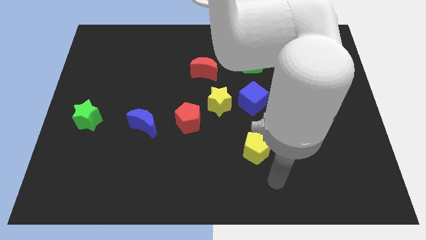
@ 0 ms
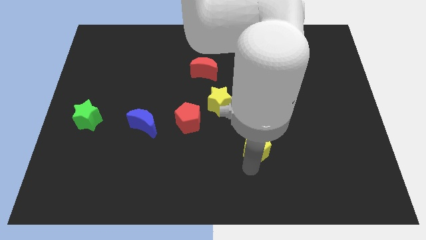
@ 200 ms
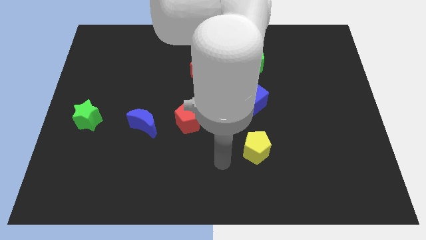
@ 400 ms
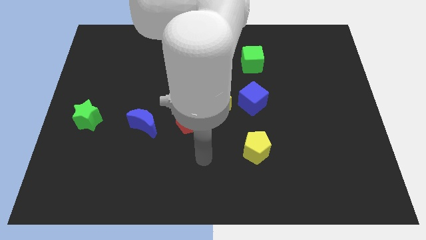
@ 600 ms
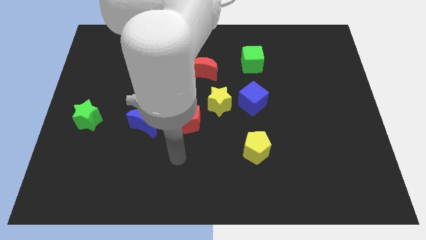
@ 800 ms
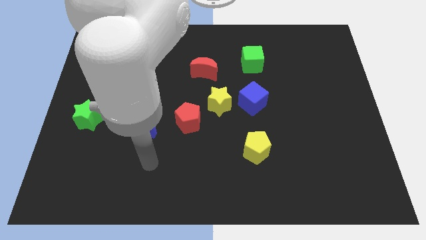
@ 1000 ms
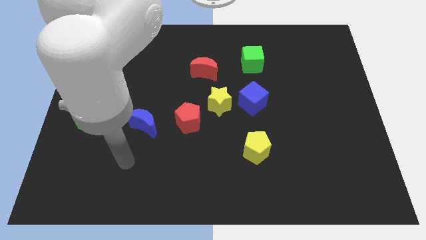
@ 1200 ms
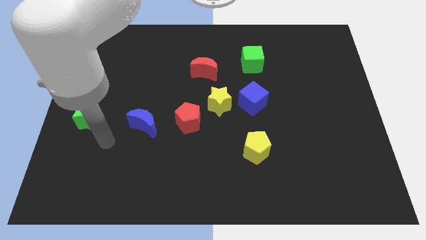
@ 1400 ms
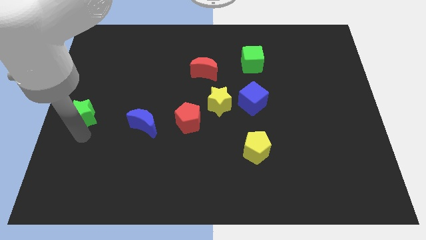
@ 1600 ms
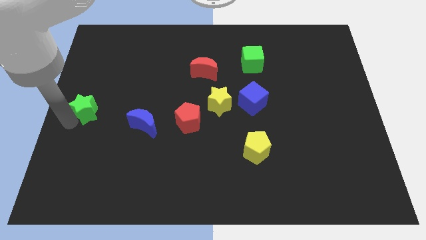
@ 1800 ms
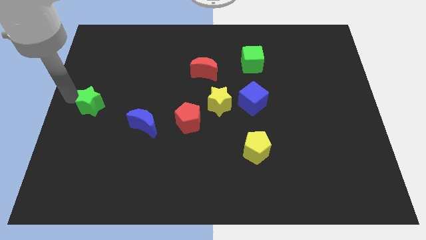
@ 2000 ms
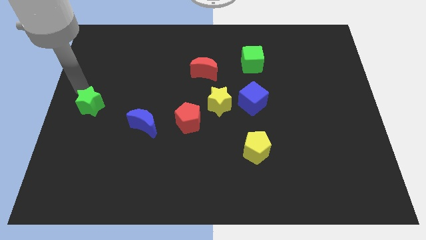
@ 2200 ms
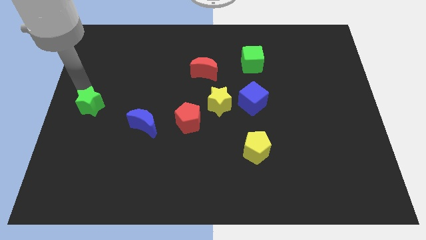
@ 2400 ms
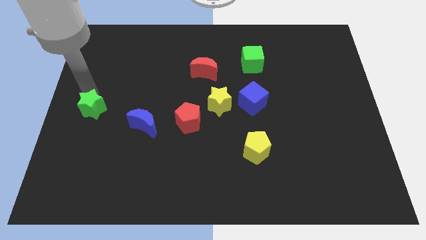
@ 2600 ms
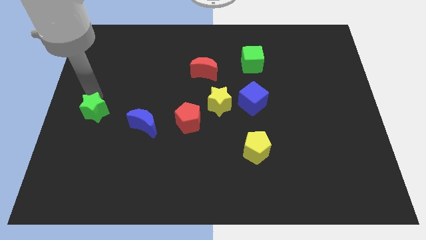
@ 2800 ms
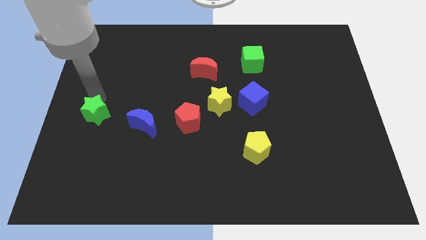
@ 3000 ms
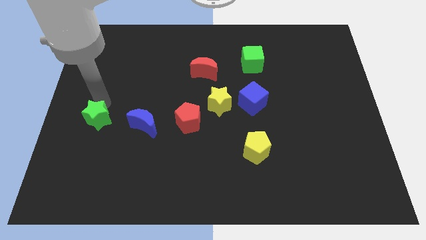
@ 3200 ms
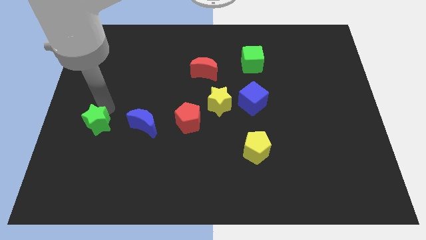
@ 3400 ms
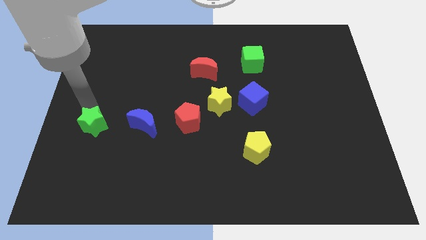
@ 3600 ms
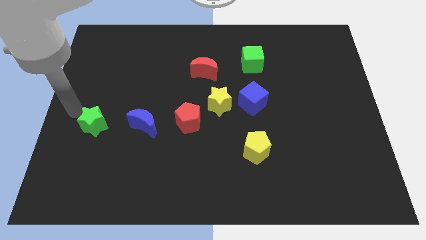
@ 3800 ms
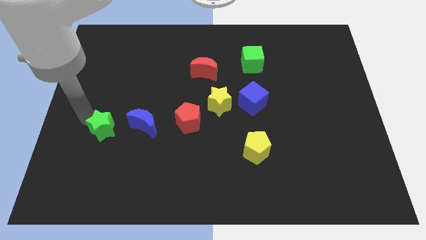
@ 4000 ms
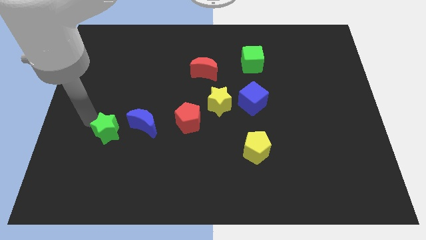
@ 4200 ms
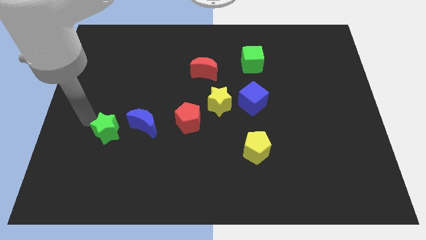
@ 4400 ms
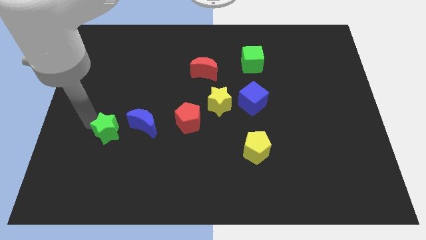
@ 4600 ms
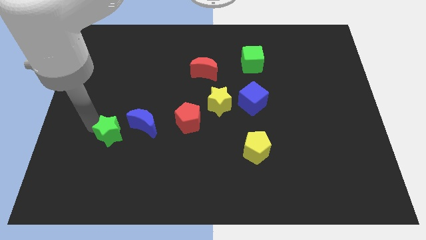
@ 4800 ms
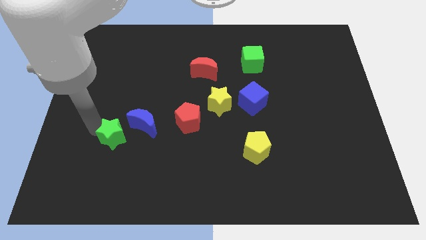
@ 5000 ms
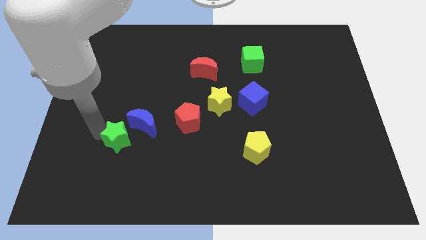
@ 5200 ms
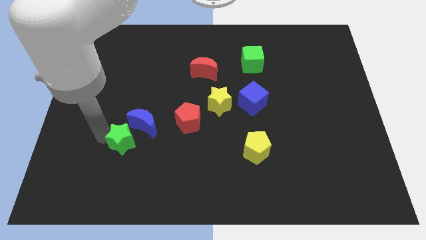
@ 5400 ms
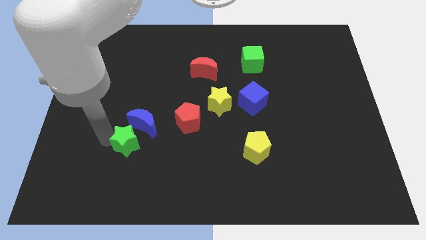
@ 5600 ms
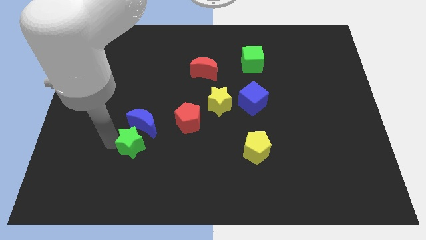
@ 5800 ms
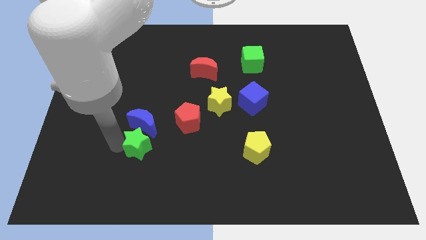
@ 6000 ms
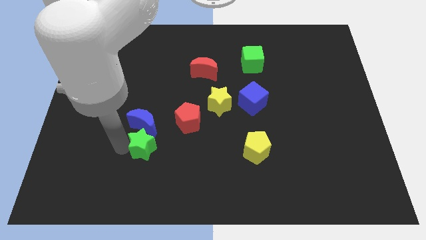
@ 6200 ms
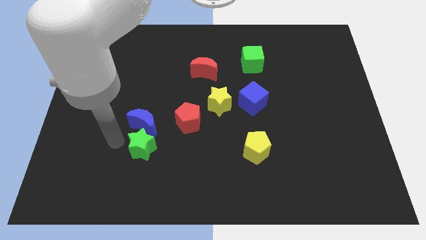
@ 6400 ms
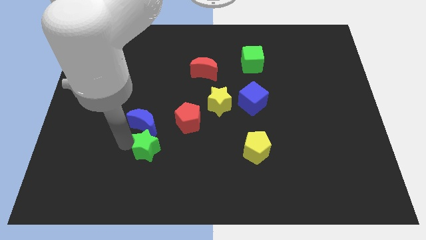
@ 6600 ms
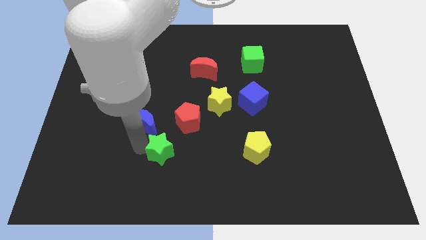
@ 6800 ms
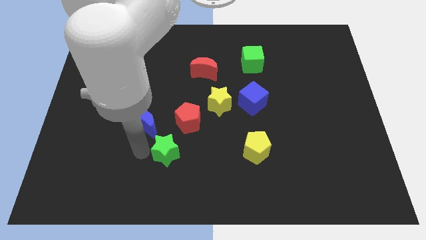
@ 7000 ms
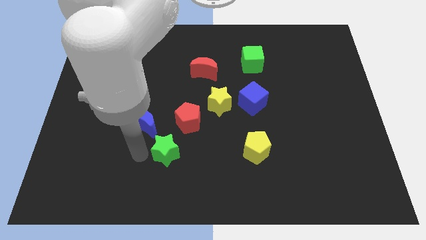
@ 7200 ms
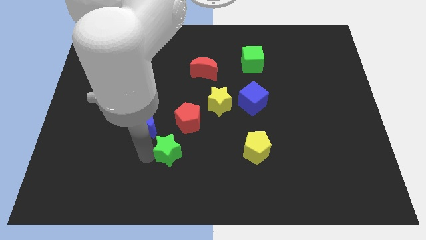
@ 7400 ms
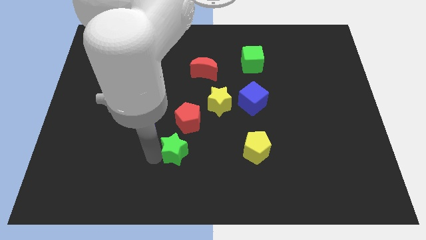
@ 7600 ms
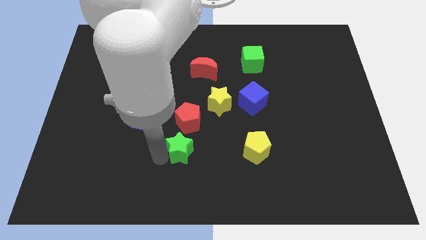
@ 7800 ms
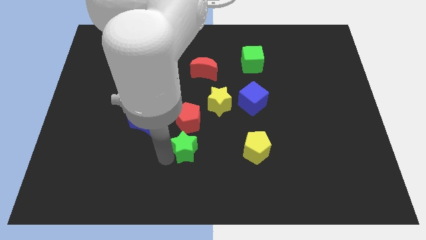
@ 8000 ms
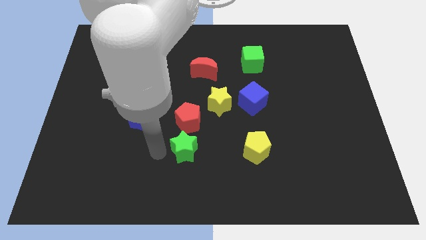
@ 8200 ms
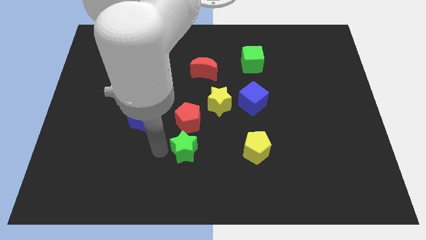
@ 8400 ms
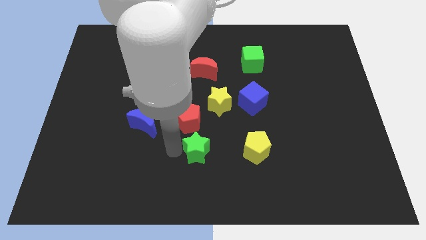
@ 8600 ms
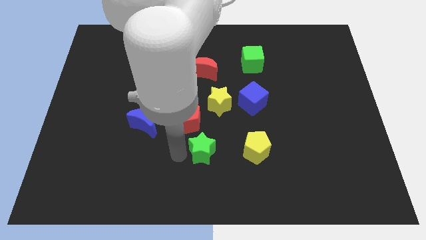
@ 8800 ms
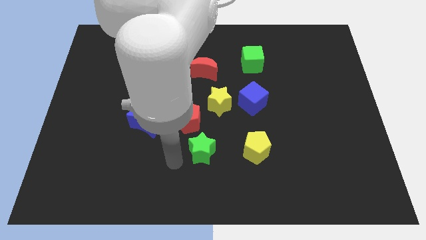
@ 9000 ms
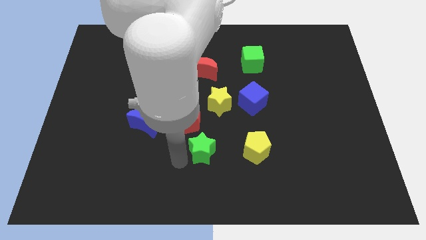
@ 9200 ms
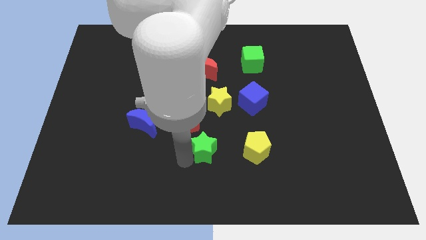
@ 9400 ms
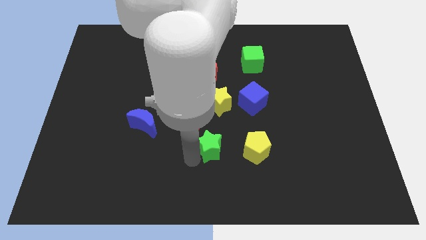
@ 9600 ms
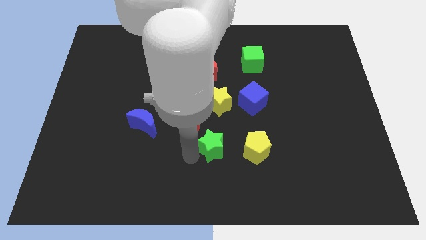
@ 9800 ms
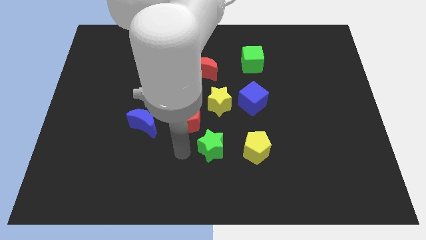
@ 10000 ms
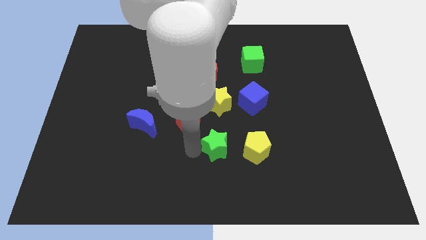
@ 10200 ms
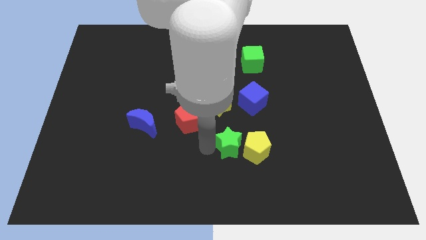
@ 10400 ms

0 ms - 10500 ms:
put the green star towards the yellow pentagon

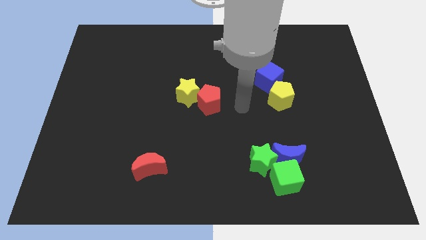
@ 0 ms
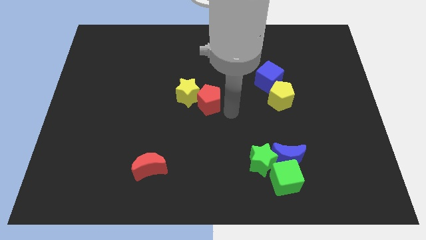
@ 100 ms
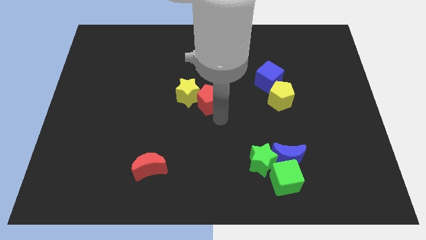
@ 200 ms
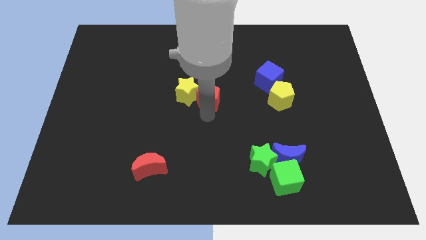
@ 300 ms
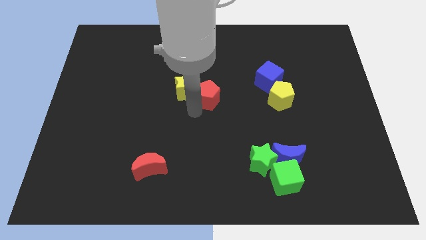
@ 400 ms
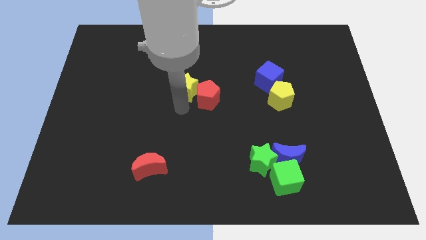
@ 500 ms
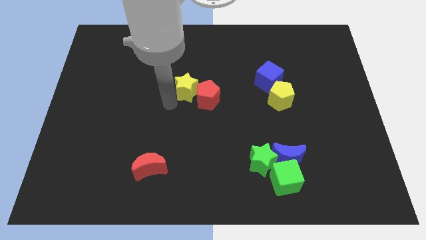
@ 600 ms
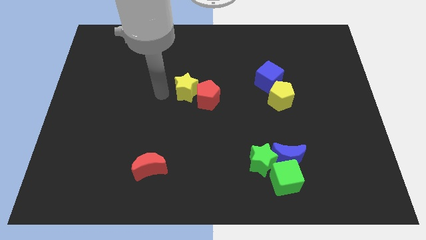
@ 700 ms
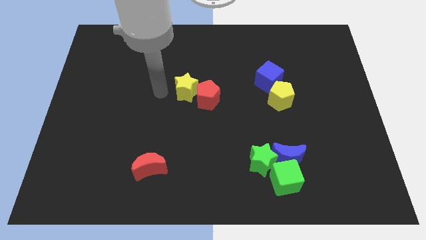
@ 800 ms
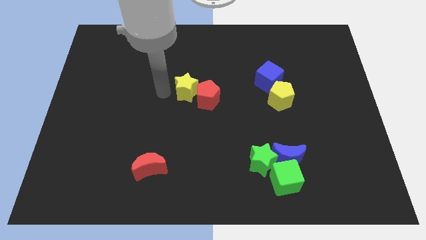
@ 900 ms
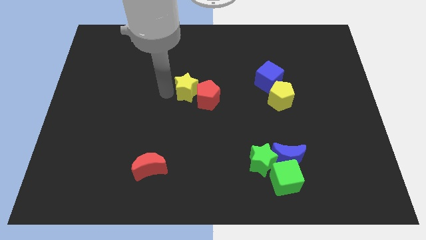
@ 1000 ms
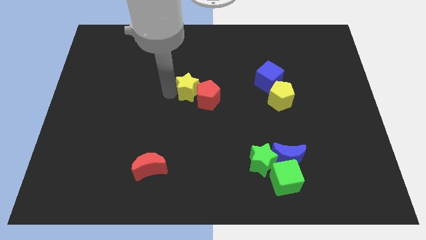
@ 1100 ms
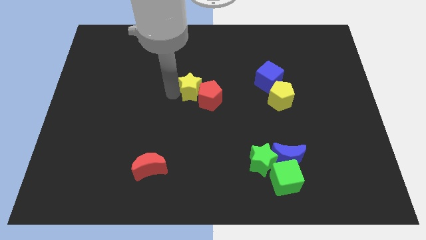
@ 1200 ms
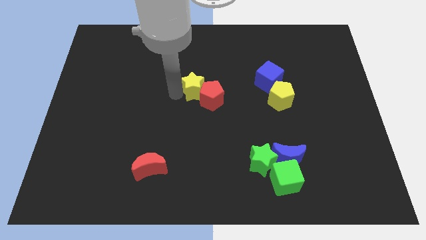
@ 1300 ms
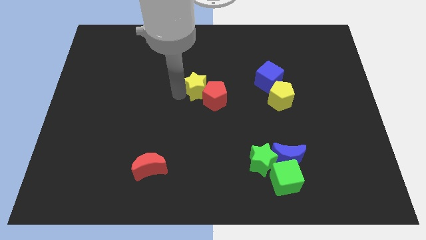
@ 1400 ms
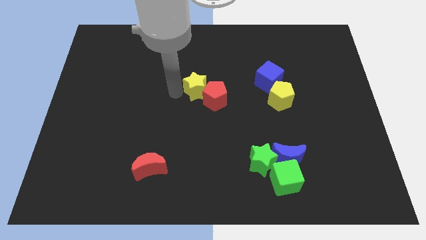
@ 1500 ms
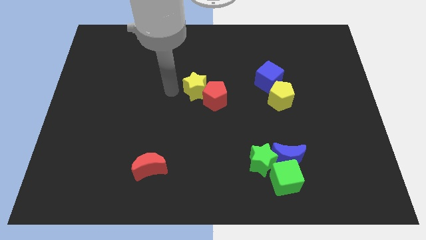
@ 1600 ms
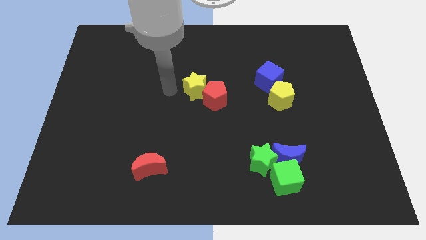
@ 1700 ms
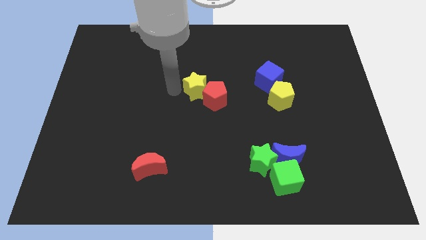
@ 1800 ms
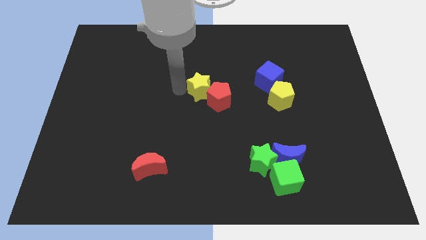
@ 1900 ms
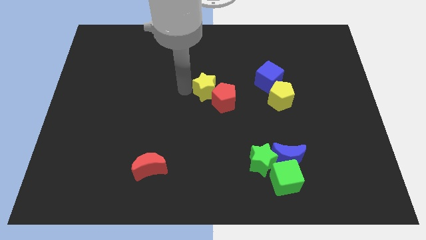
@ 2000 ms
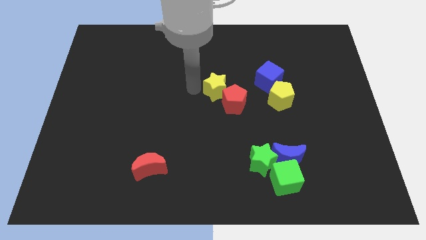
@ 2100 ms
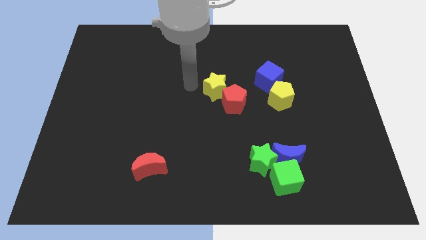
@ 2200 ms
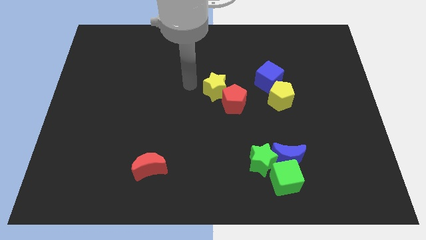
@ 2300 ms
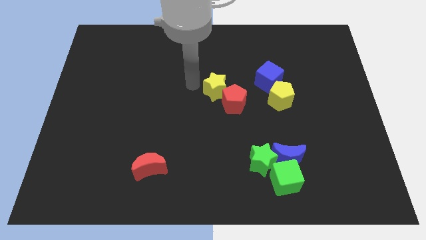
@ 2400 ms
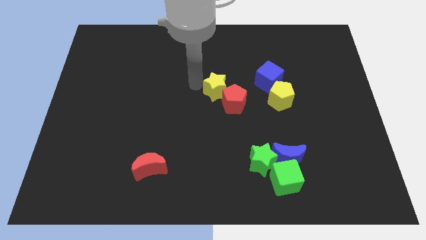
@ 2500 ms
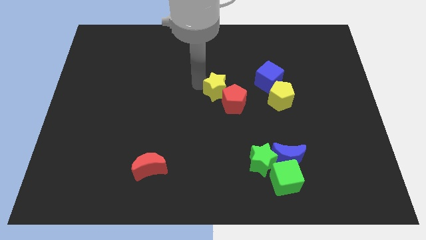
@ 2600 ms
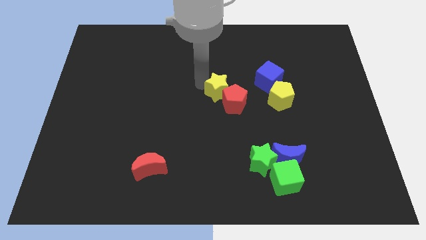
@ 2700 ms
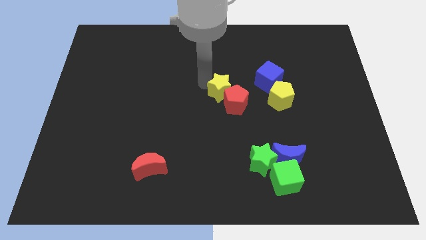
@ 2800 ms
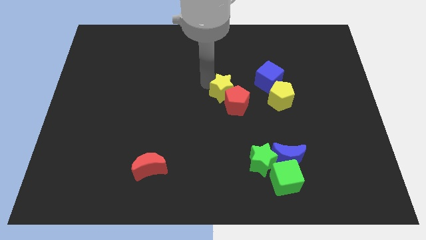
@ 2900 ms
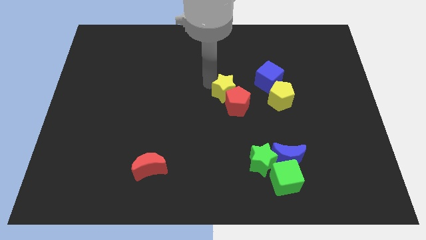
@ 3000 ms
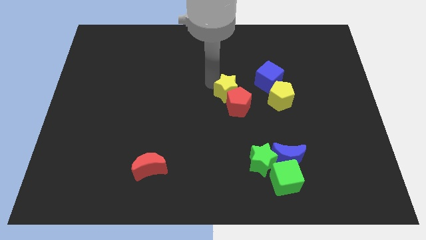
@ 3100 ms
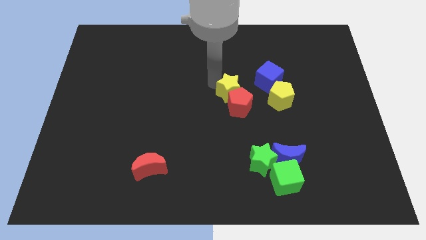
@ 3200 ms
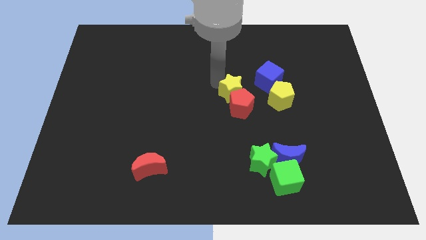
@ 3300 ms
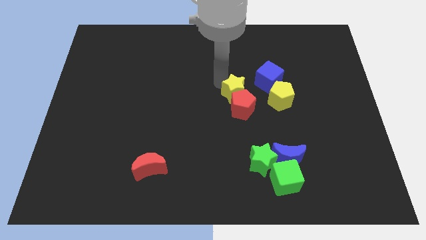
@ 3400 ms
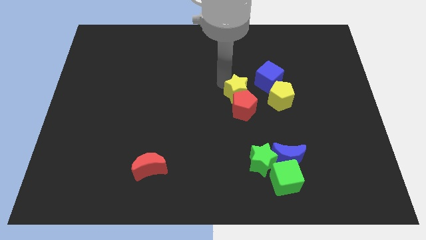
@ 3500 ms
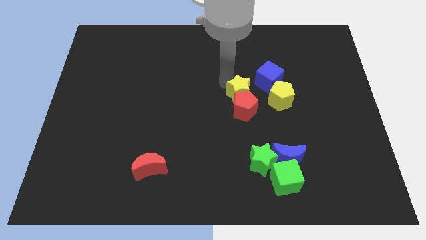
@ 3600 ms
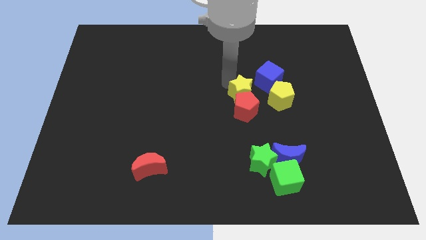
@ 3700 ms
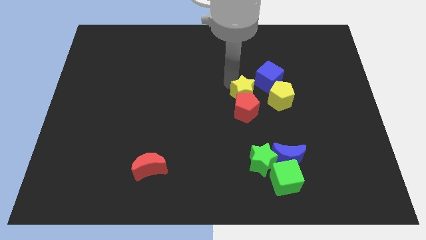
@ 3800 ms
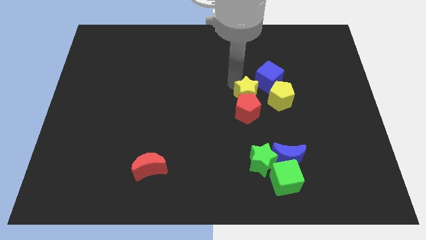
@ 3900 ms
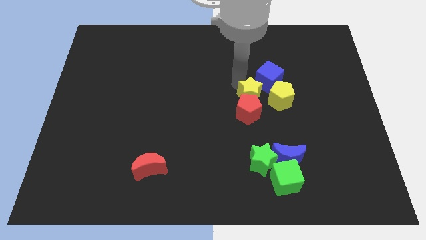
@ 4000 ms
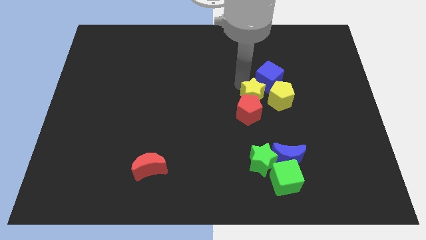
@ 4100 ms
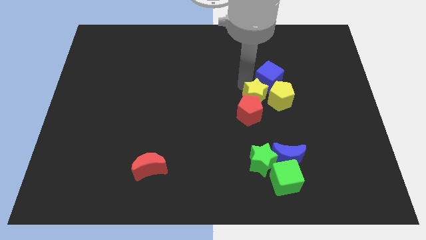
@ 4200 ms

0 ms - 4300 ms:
move the yellow star towards the yellow pentagon
